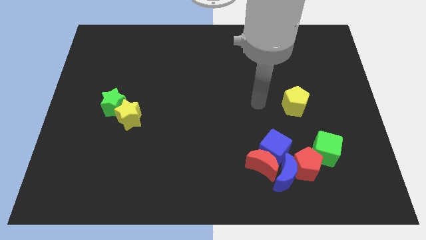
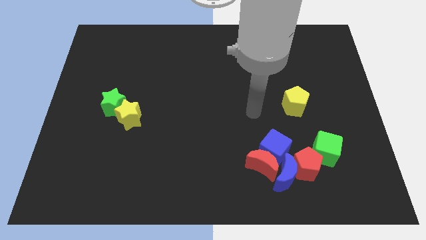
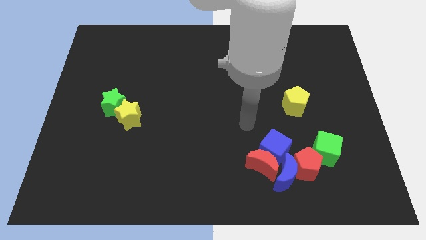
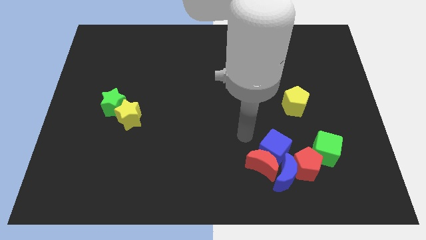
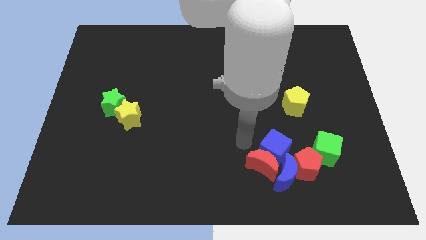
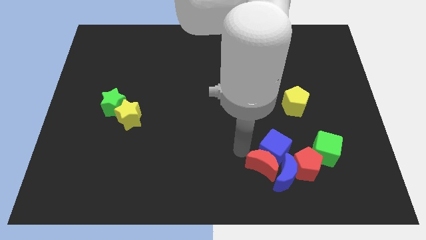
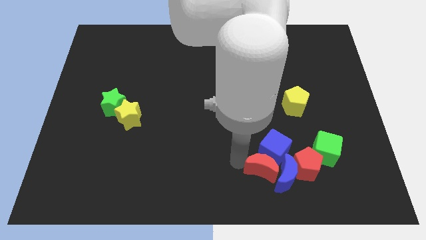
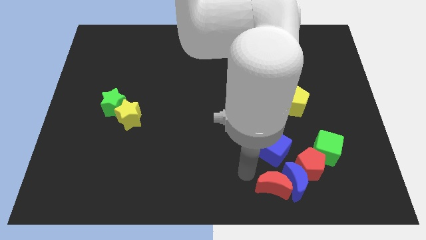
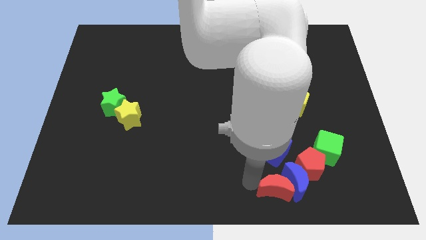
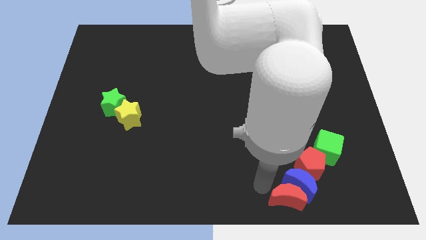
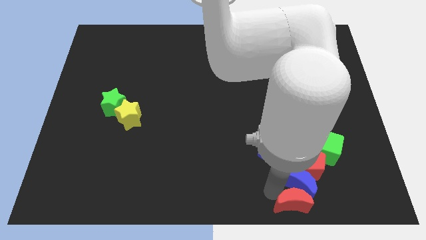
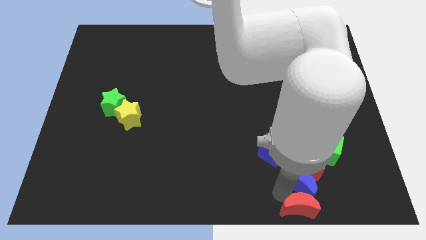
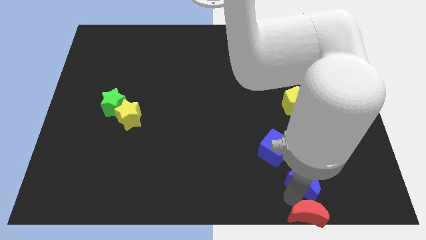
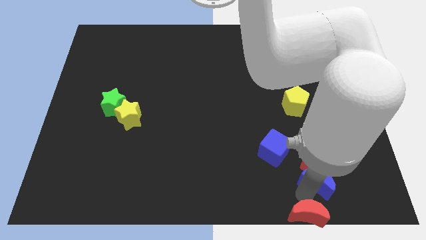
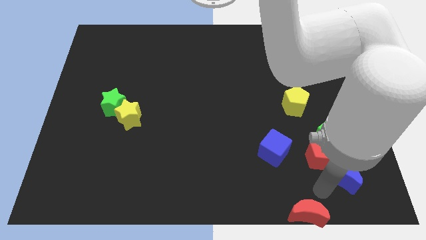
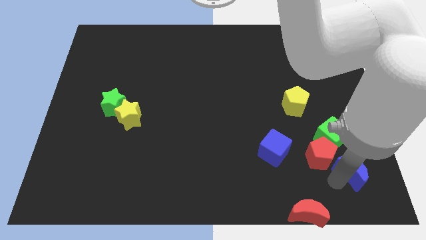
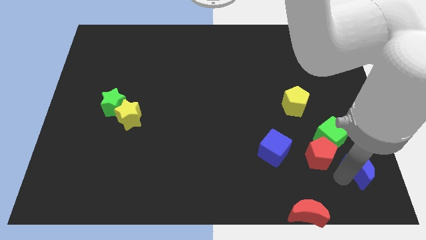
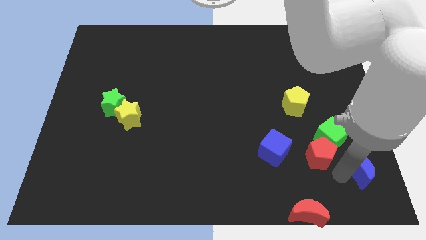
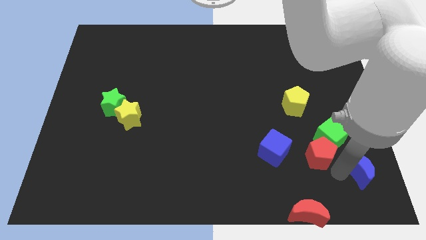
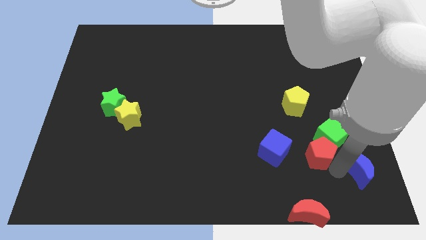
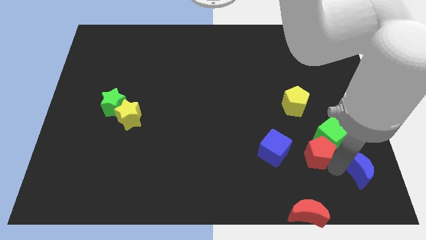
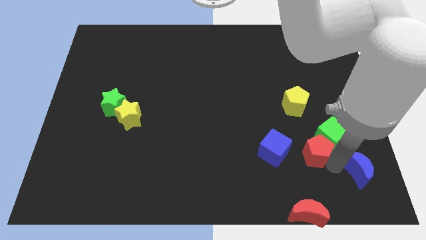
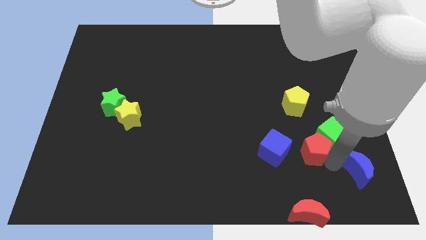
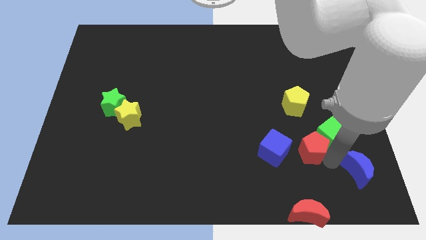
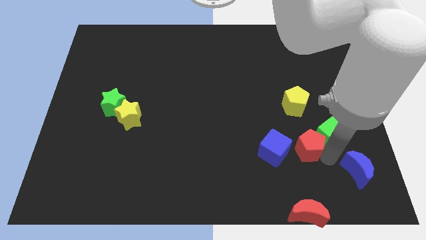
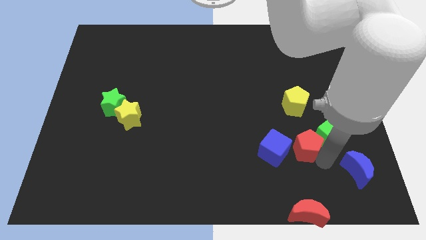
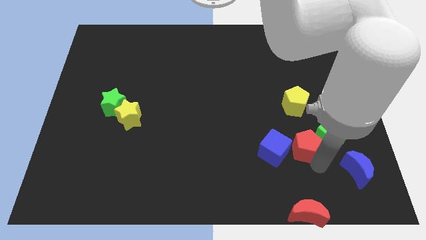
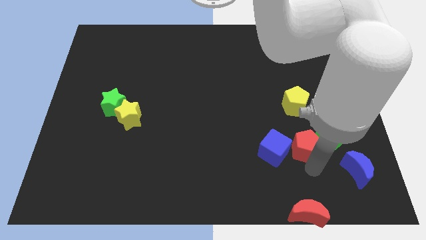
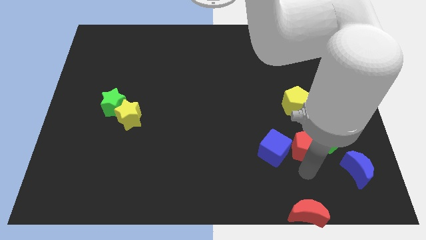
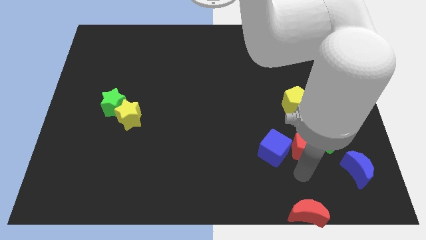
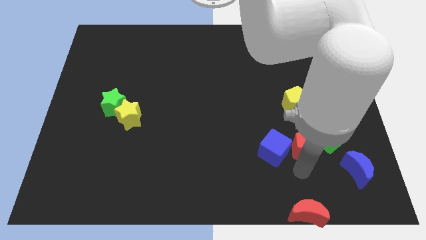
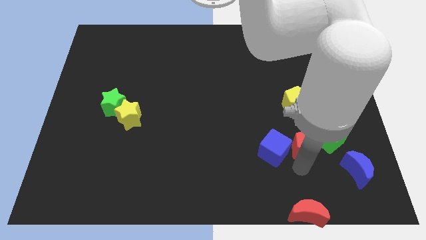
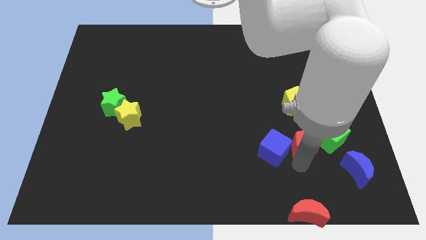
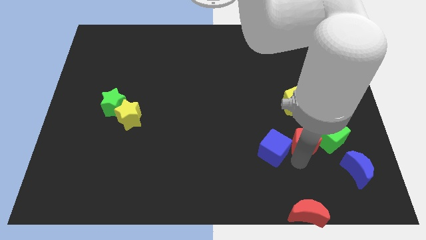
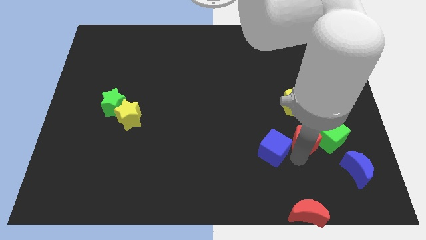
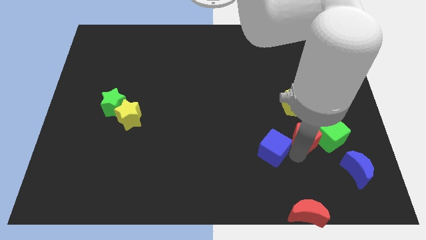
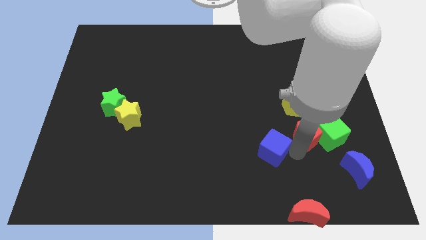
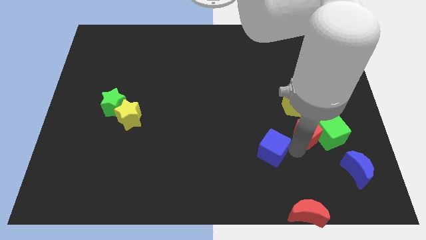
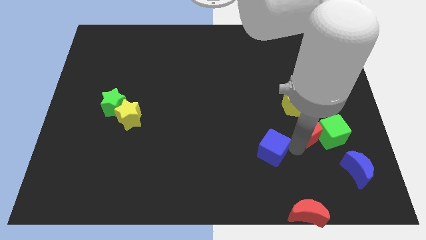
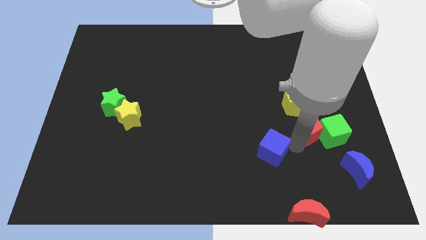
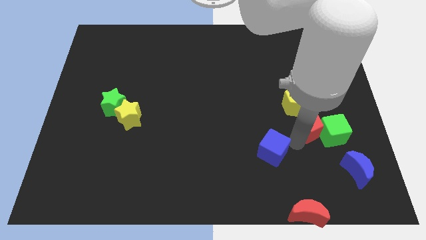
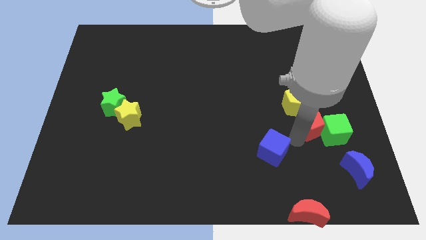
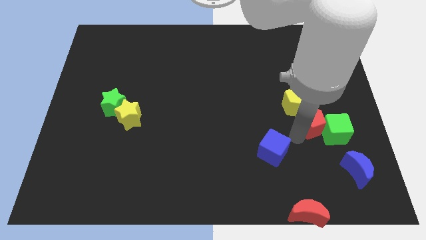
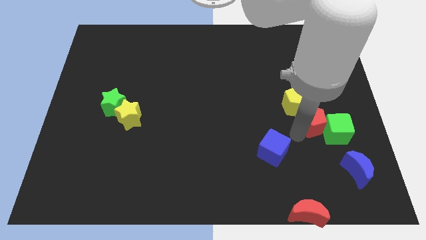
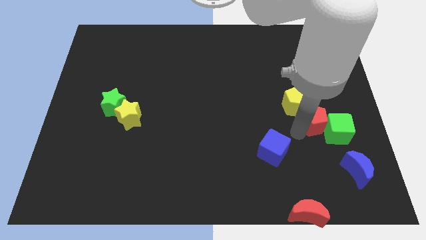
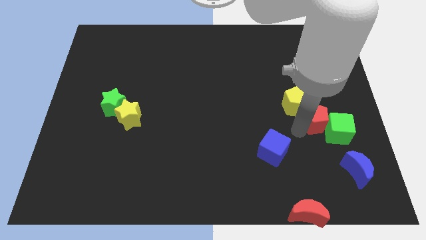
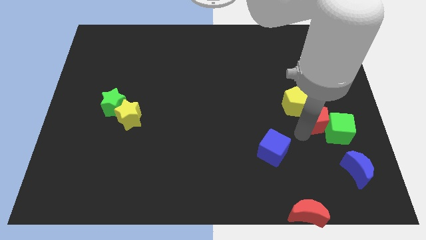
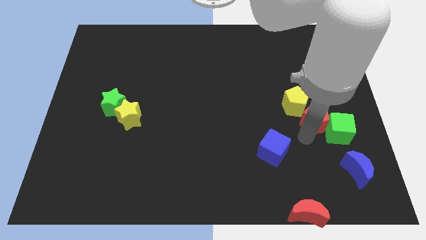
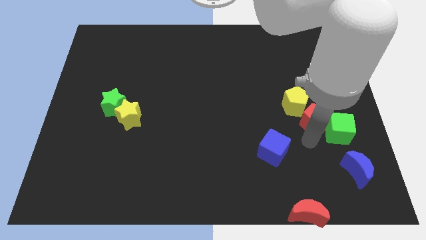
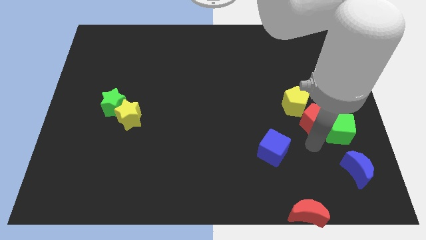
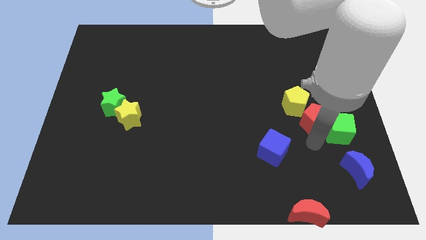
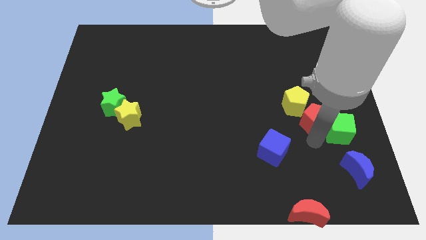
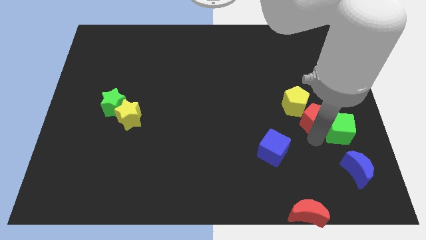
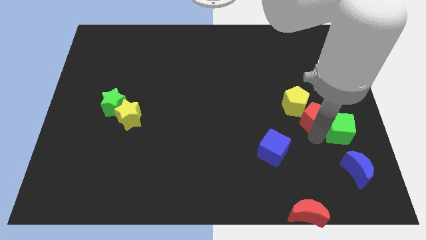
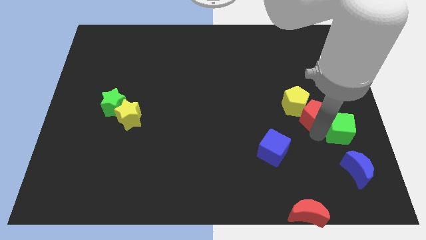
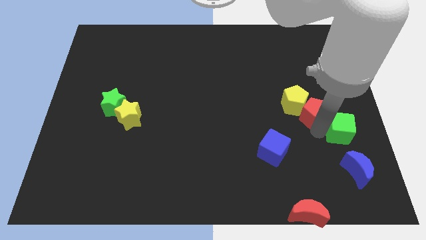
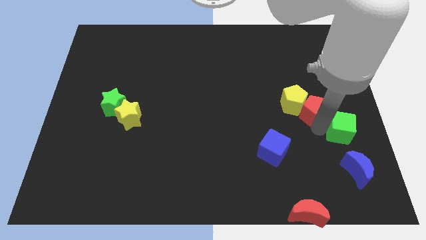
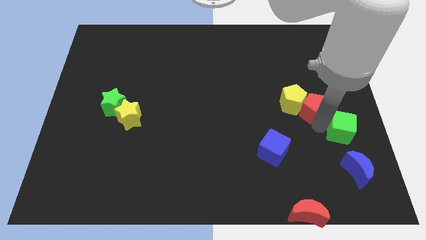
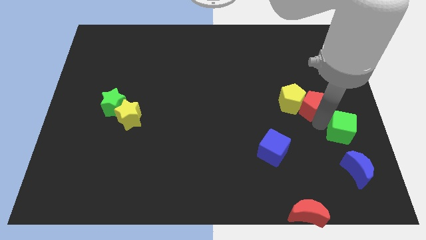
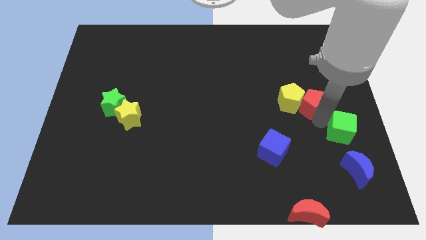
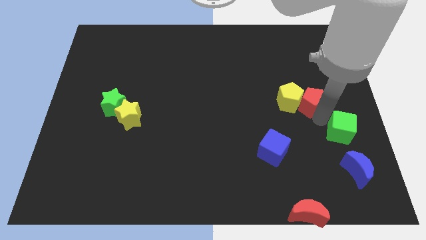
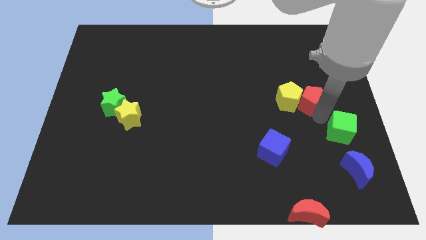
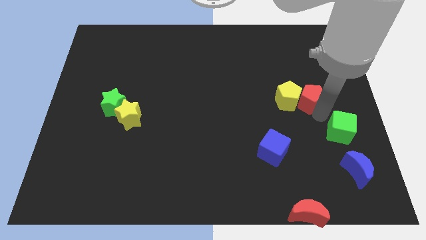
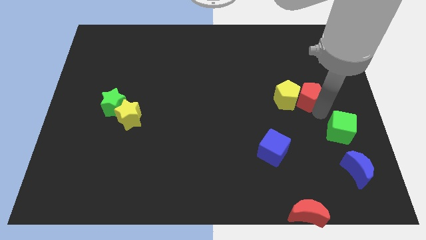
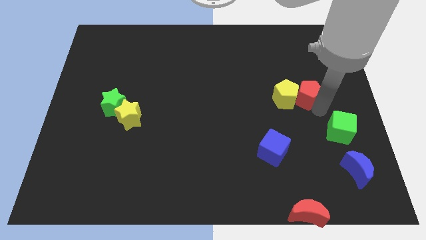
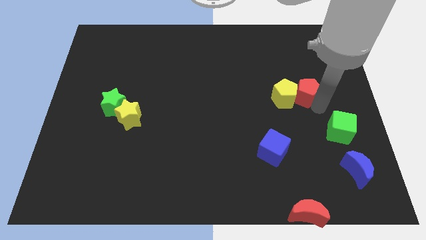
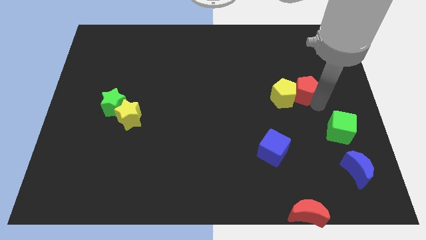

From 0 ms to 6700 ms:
slide the red pentagon up

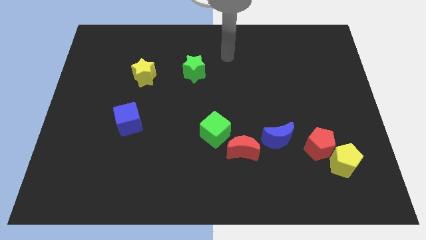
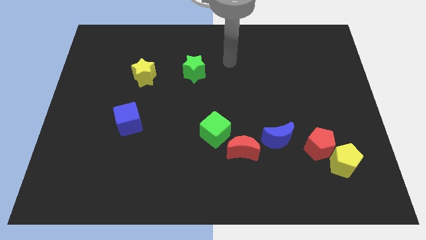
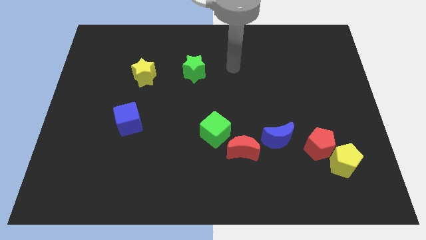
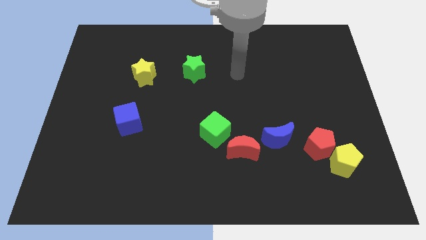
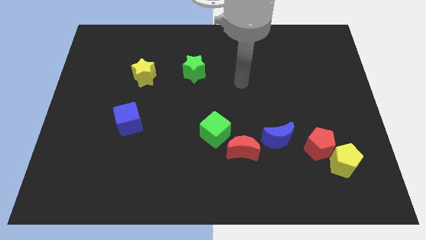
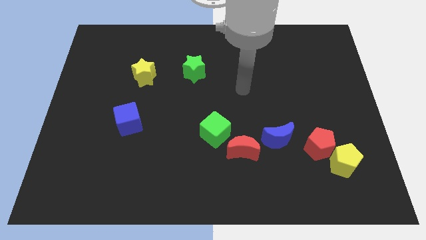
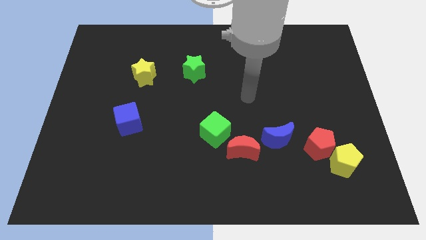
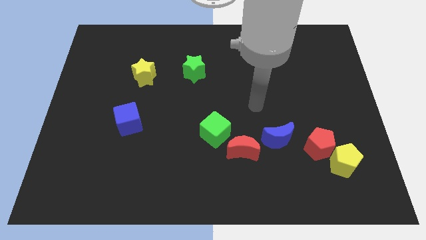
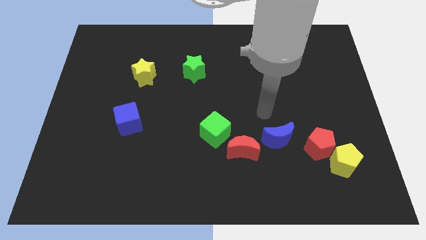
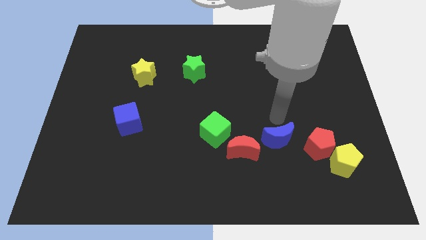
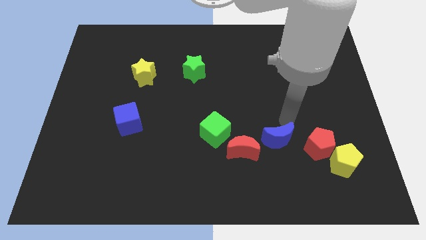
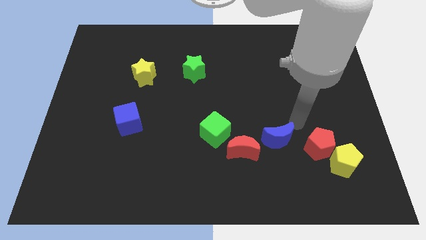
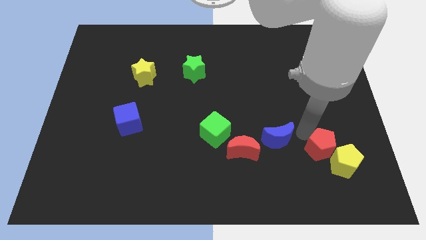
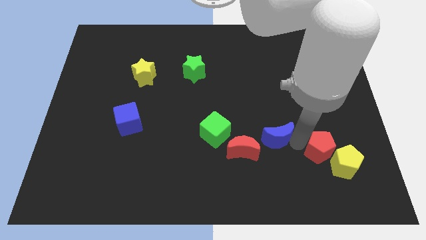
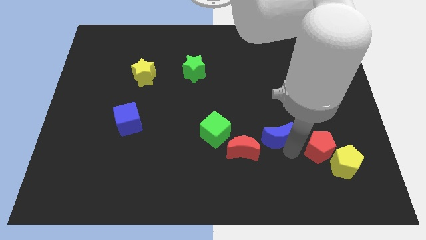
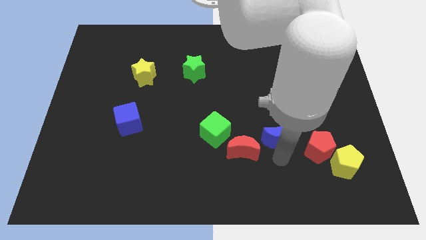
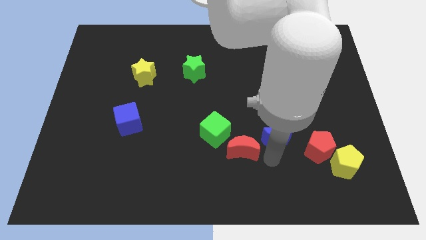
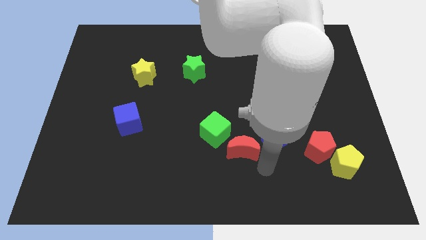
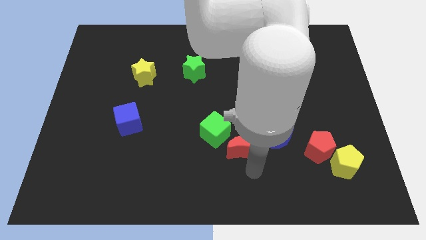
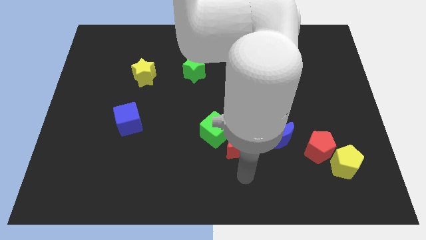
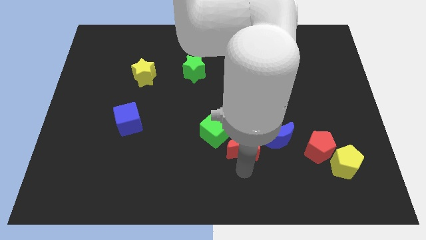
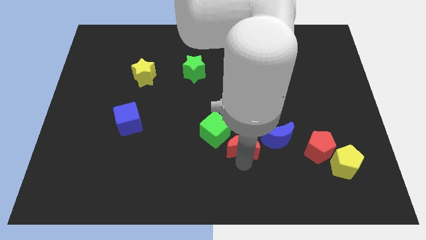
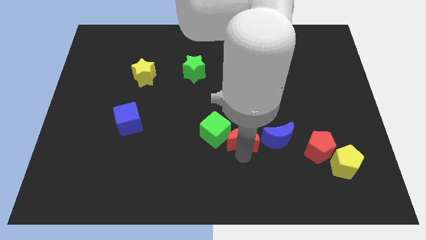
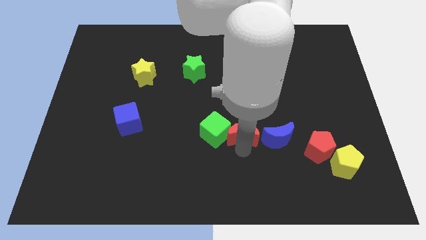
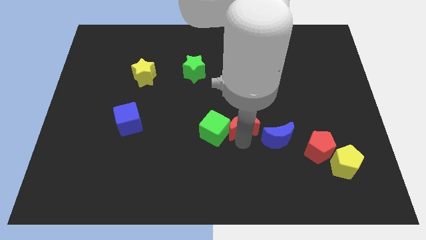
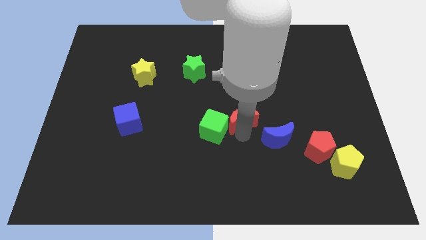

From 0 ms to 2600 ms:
slightly move the red moon up
